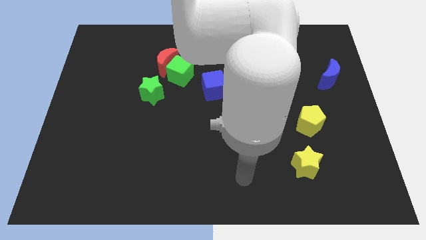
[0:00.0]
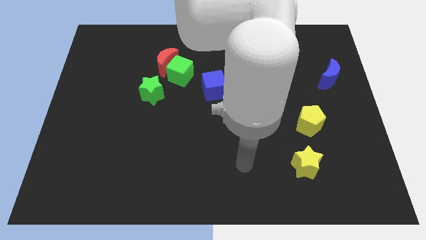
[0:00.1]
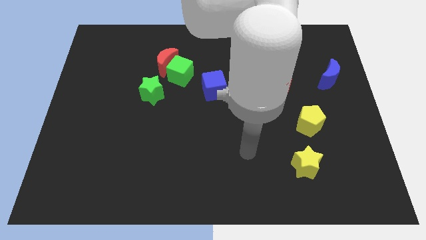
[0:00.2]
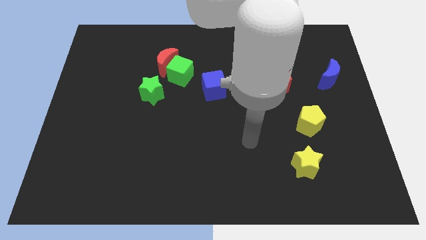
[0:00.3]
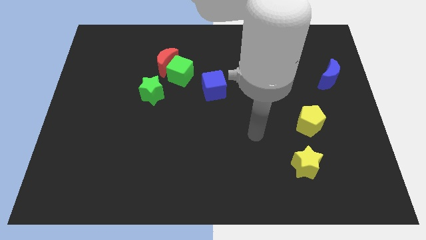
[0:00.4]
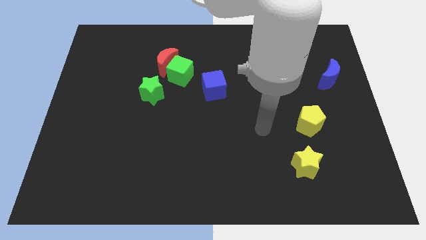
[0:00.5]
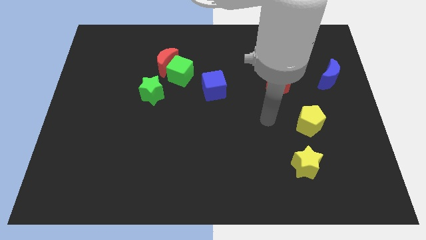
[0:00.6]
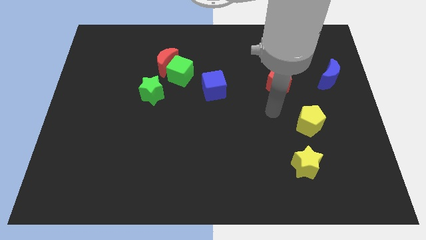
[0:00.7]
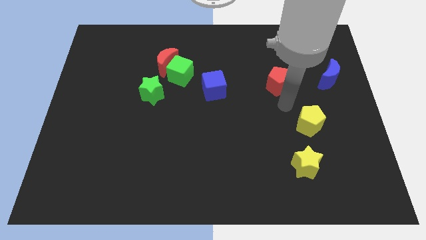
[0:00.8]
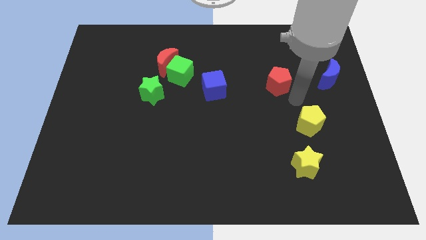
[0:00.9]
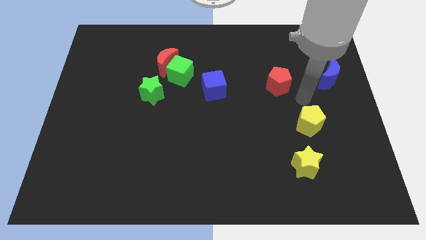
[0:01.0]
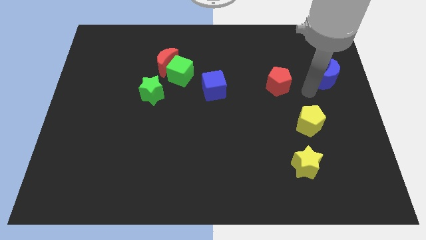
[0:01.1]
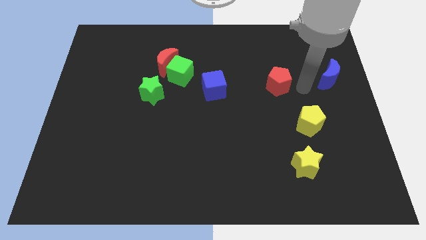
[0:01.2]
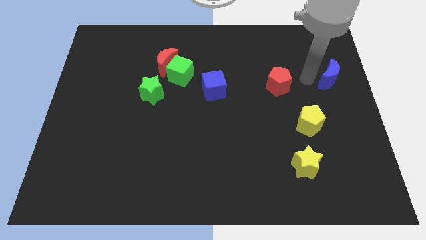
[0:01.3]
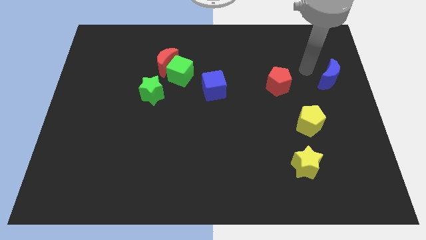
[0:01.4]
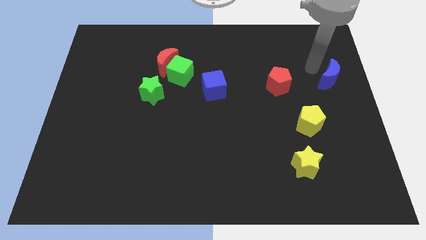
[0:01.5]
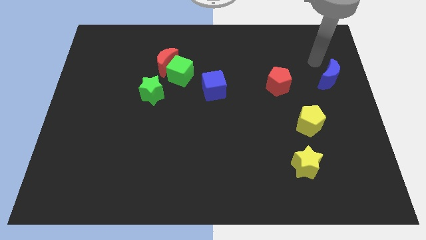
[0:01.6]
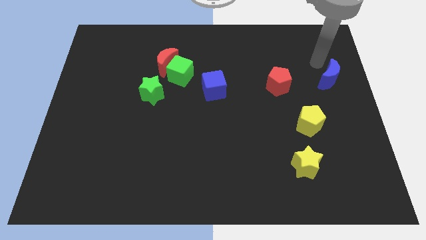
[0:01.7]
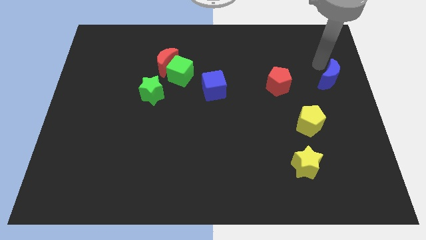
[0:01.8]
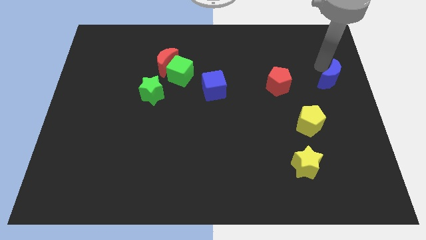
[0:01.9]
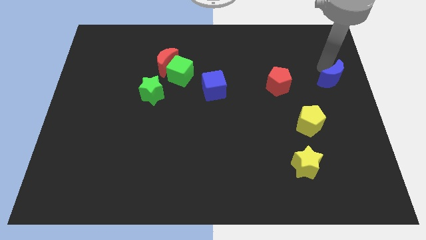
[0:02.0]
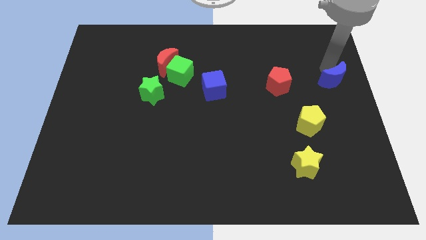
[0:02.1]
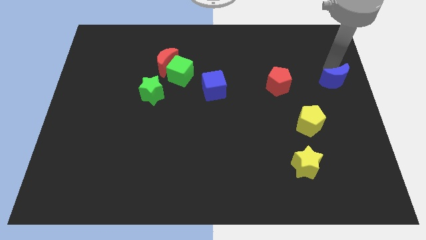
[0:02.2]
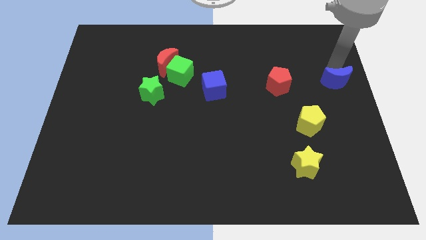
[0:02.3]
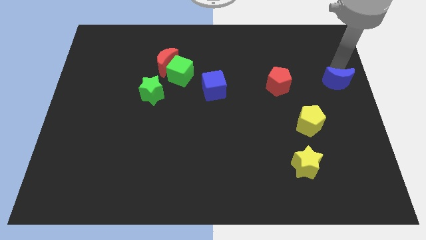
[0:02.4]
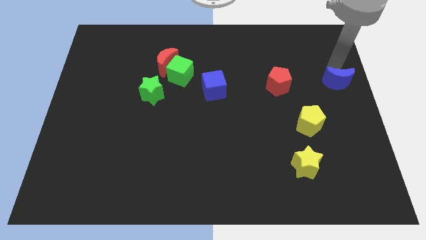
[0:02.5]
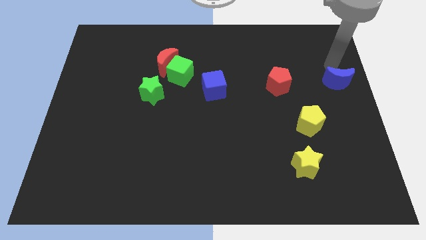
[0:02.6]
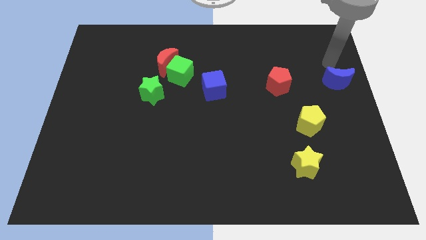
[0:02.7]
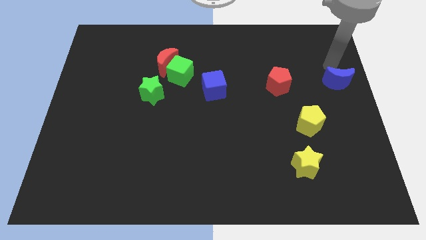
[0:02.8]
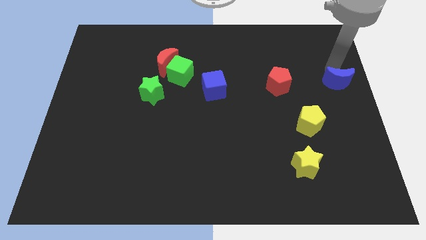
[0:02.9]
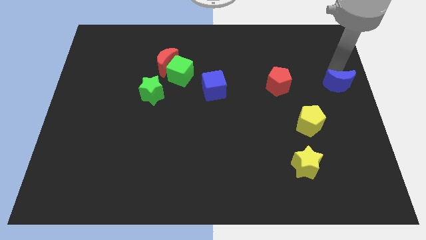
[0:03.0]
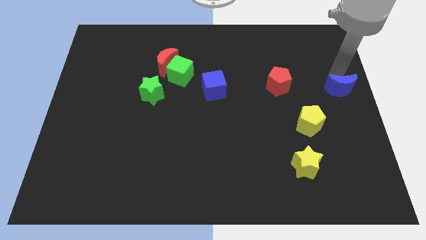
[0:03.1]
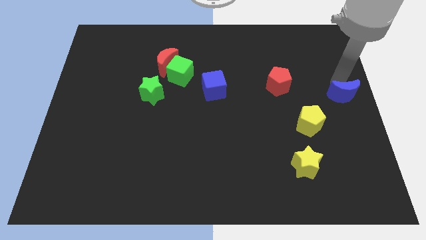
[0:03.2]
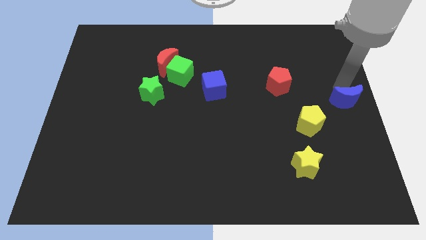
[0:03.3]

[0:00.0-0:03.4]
slide the blue moon down somewhat

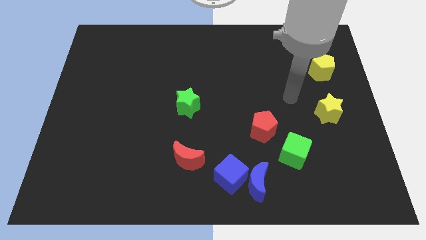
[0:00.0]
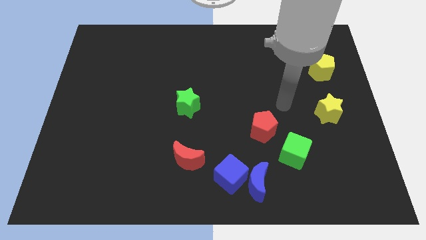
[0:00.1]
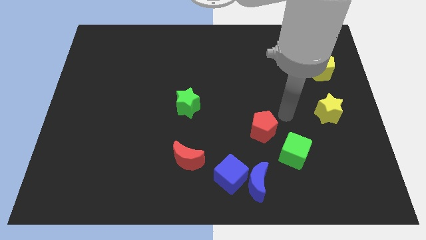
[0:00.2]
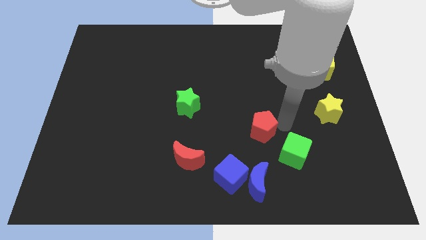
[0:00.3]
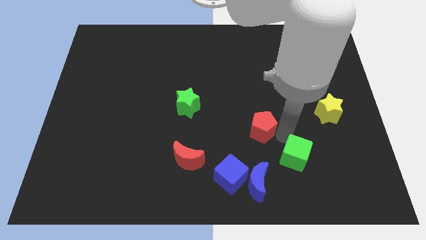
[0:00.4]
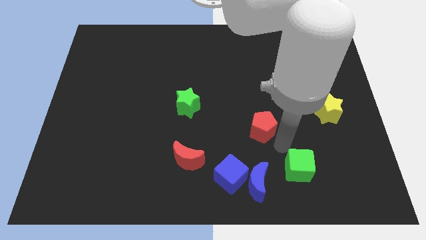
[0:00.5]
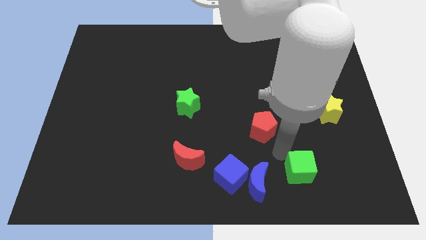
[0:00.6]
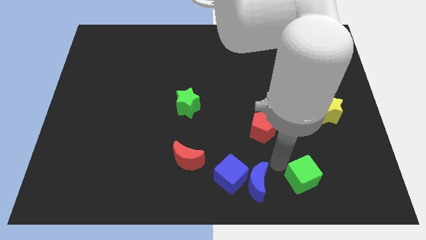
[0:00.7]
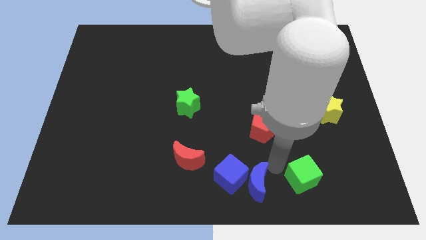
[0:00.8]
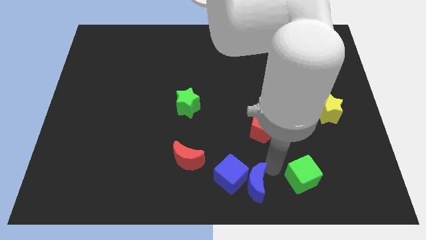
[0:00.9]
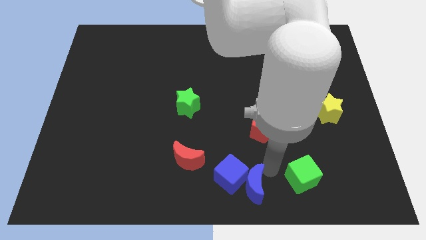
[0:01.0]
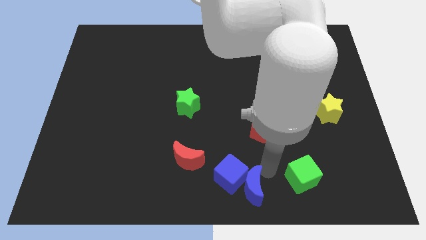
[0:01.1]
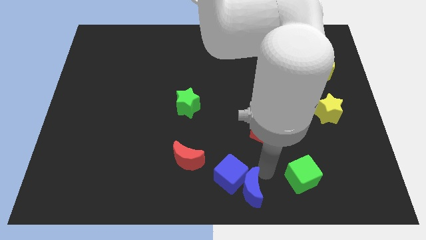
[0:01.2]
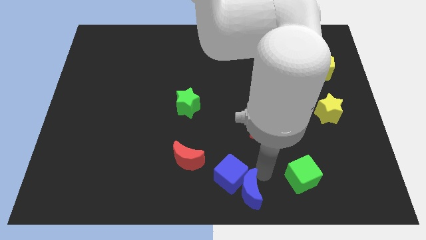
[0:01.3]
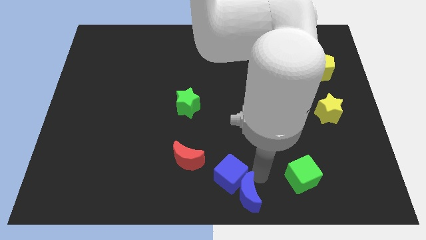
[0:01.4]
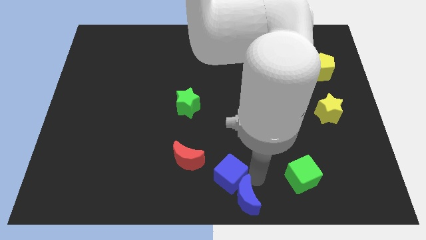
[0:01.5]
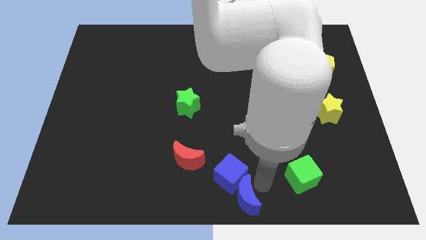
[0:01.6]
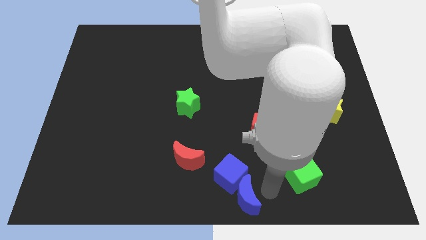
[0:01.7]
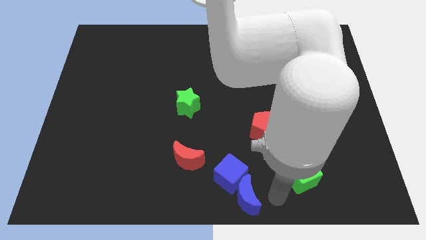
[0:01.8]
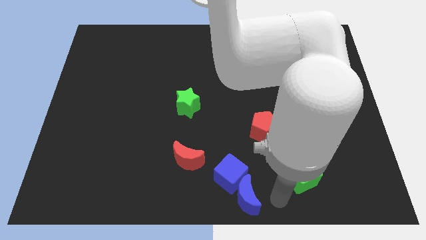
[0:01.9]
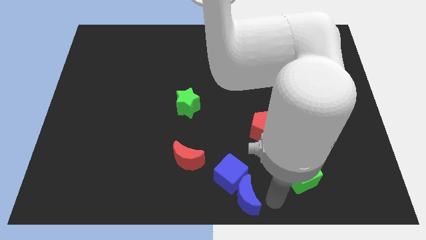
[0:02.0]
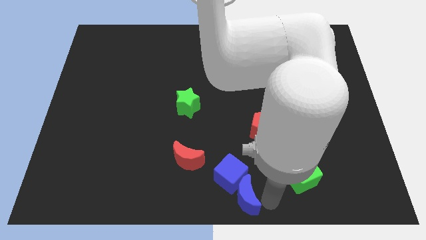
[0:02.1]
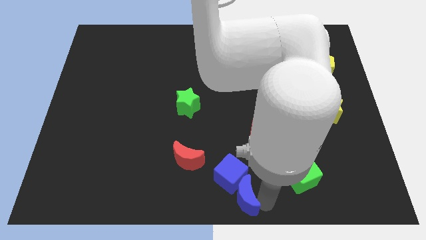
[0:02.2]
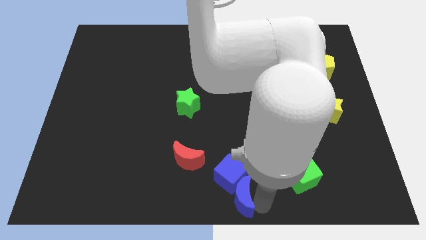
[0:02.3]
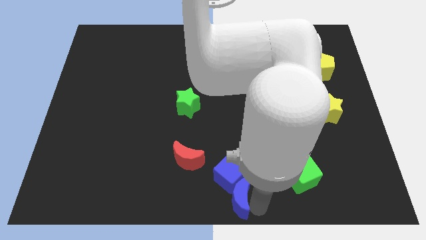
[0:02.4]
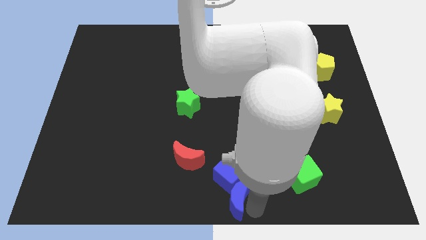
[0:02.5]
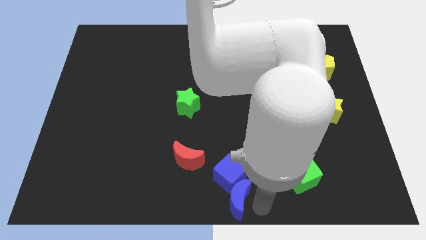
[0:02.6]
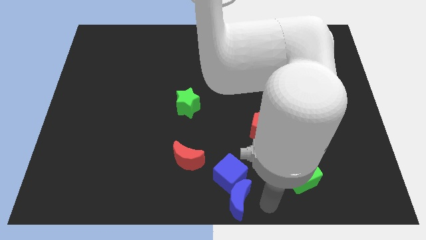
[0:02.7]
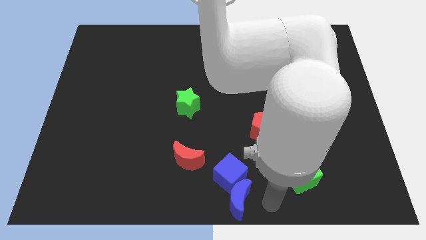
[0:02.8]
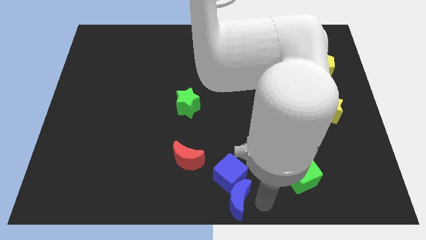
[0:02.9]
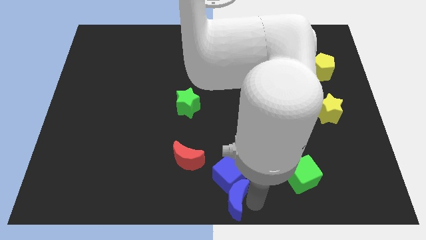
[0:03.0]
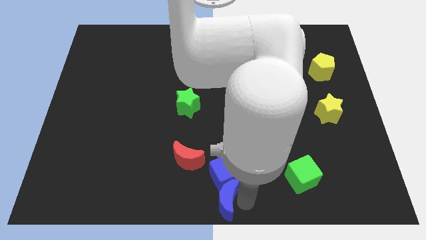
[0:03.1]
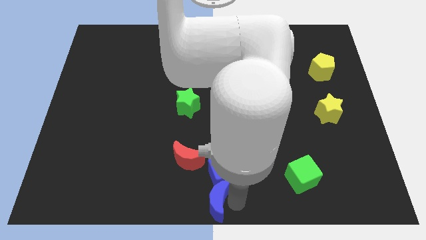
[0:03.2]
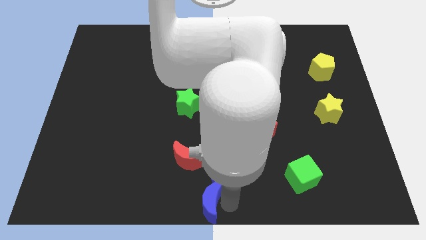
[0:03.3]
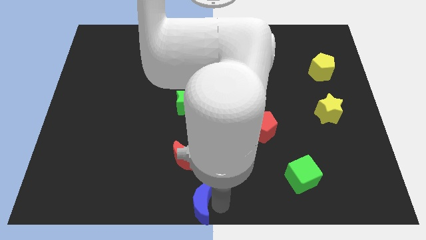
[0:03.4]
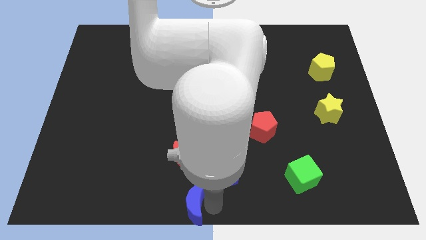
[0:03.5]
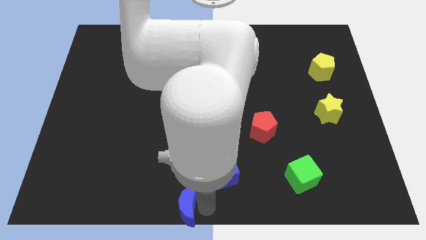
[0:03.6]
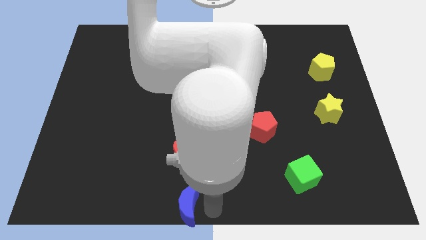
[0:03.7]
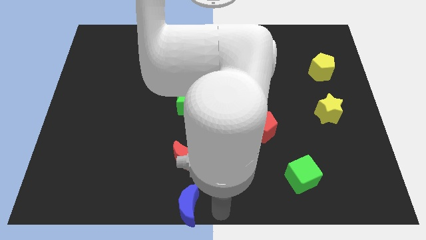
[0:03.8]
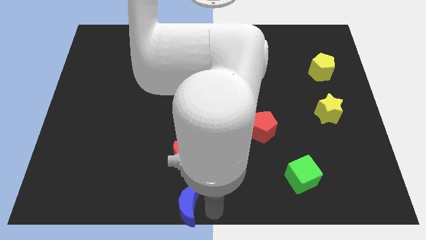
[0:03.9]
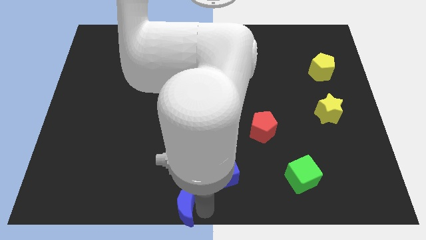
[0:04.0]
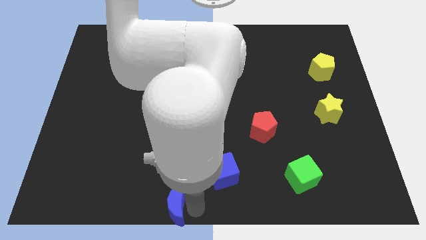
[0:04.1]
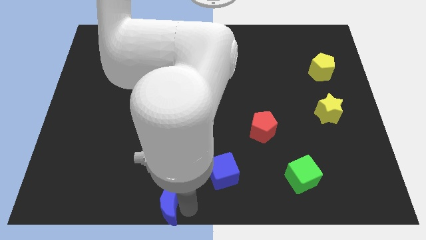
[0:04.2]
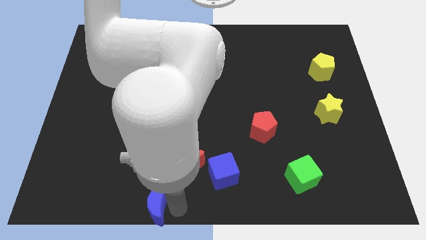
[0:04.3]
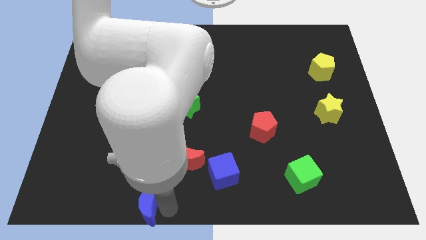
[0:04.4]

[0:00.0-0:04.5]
slide the blue moon left
